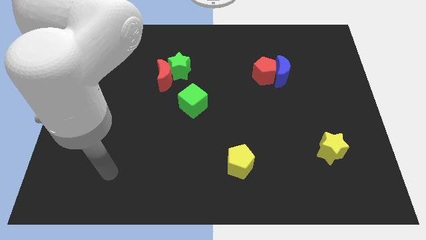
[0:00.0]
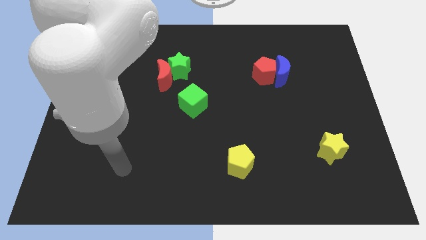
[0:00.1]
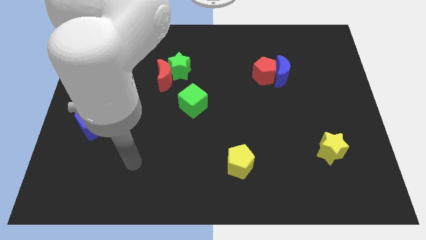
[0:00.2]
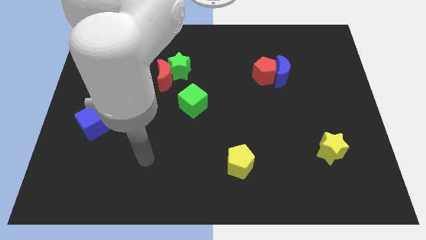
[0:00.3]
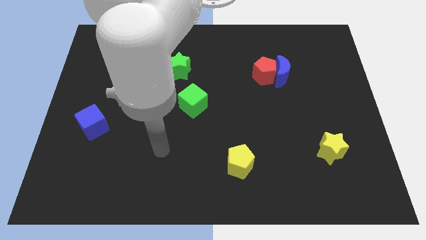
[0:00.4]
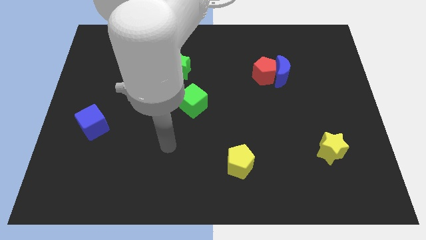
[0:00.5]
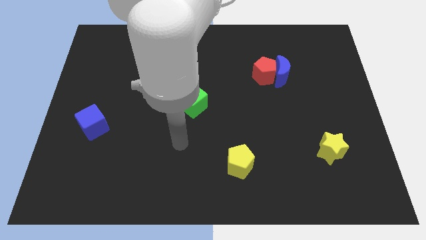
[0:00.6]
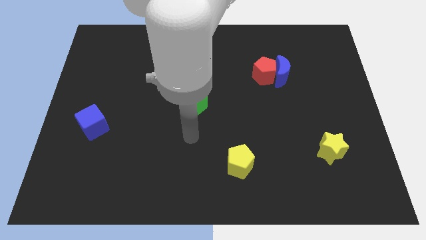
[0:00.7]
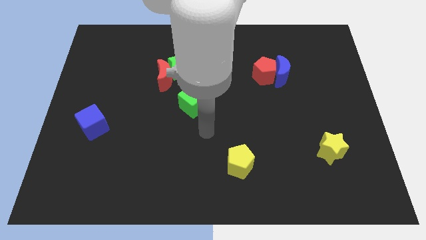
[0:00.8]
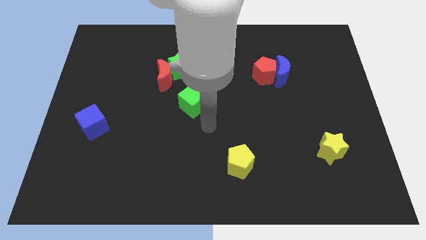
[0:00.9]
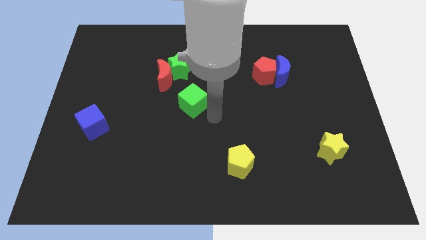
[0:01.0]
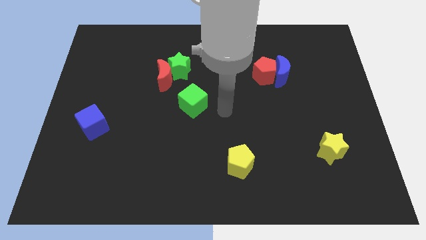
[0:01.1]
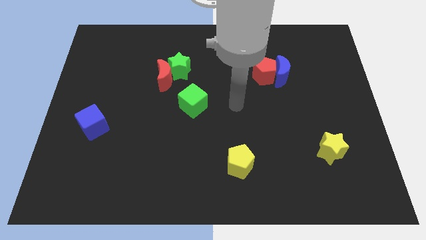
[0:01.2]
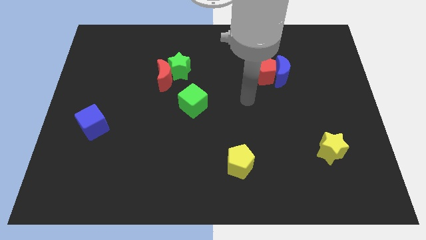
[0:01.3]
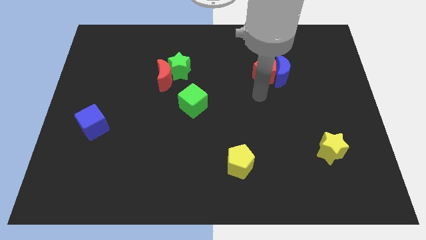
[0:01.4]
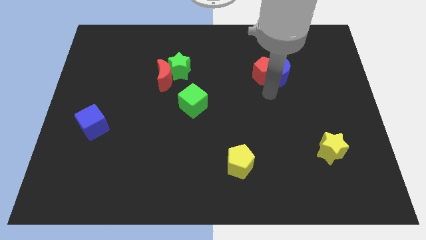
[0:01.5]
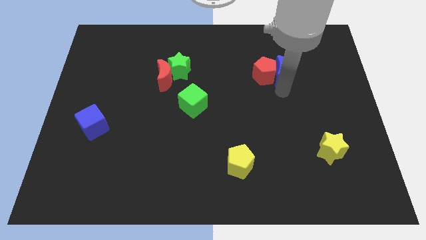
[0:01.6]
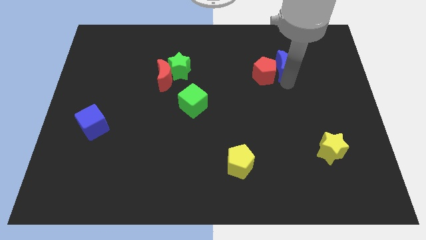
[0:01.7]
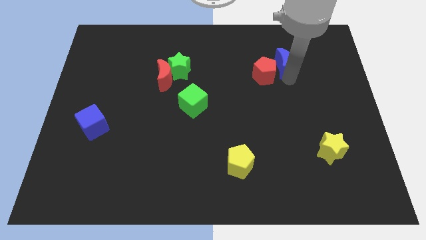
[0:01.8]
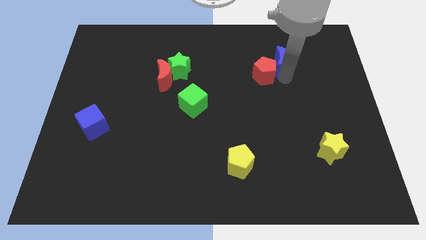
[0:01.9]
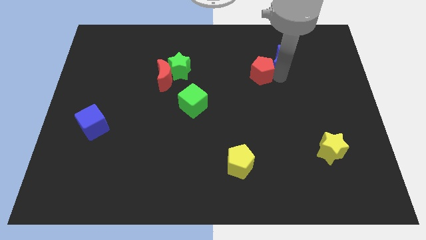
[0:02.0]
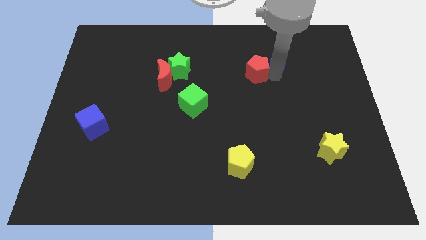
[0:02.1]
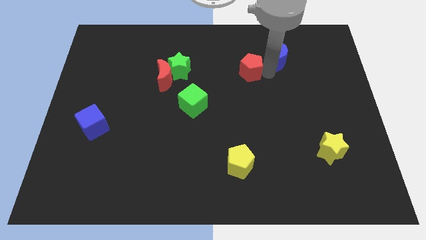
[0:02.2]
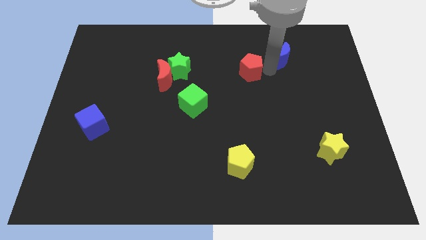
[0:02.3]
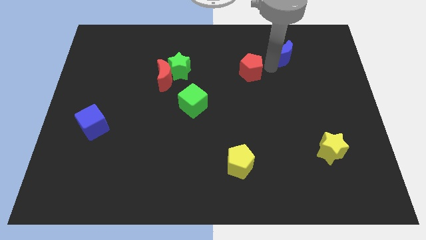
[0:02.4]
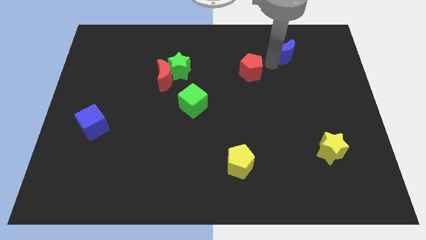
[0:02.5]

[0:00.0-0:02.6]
move the red pentagon away from the blue moon

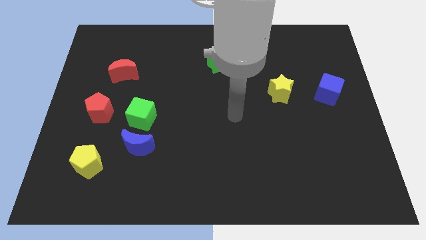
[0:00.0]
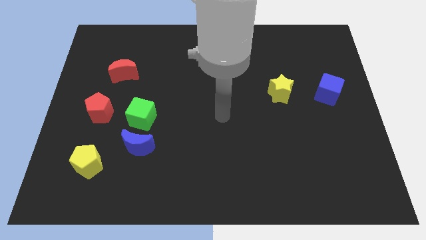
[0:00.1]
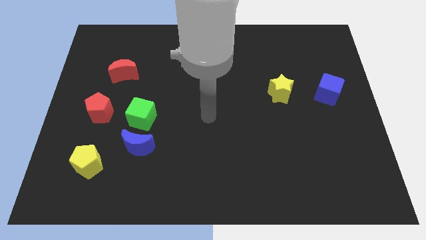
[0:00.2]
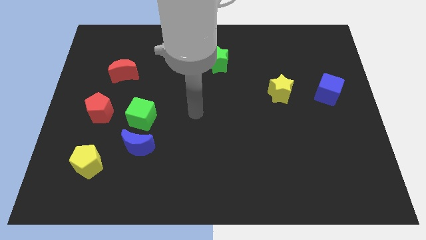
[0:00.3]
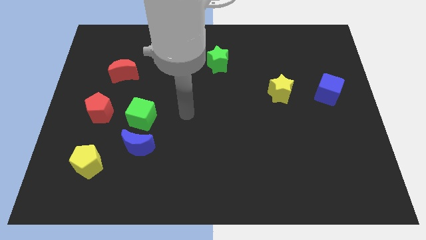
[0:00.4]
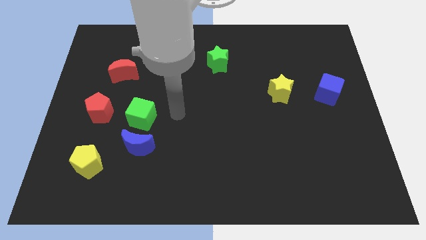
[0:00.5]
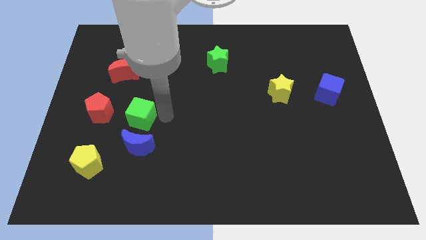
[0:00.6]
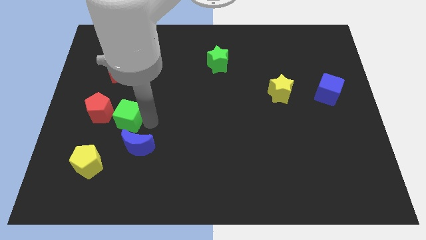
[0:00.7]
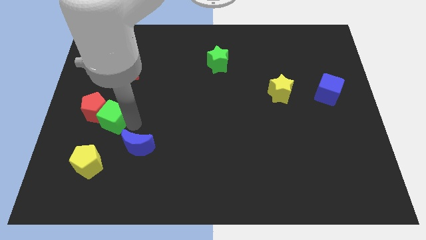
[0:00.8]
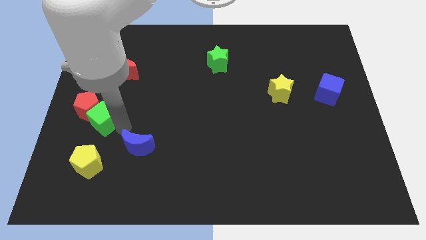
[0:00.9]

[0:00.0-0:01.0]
pull the blue moon apart from the green cube

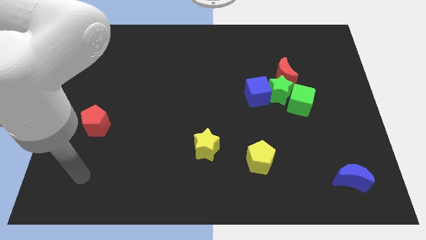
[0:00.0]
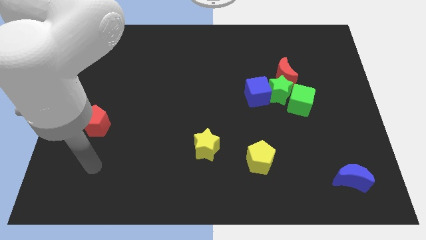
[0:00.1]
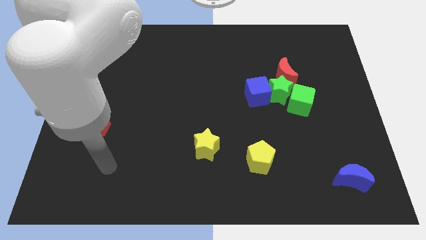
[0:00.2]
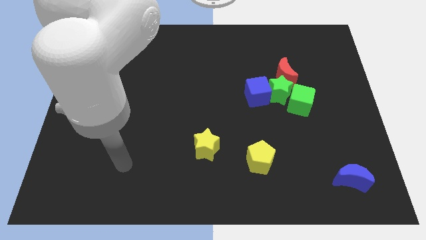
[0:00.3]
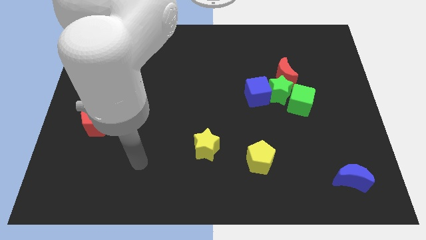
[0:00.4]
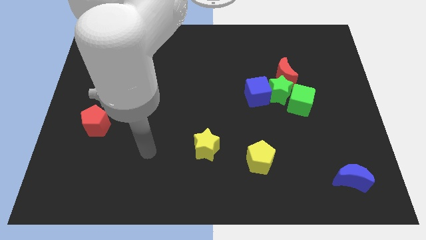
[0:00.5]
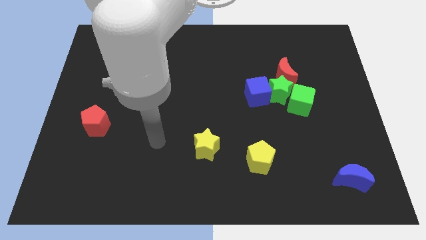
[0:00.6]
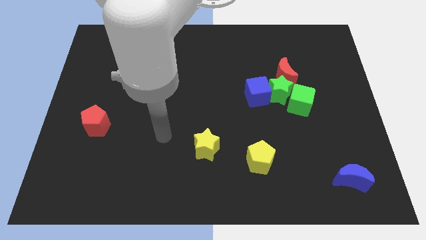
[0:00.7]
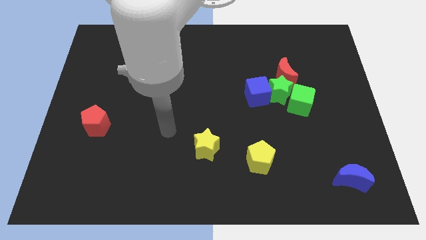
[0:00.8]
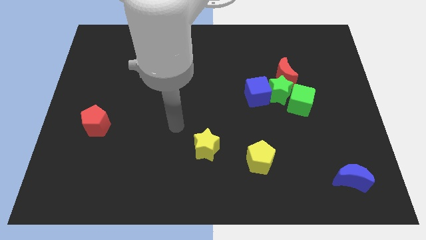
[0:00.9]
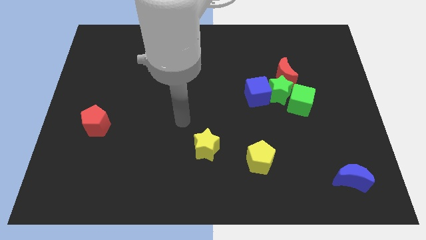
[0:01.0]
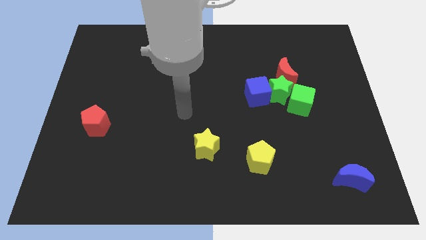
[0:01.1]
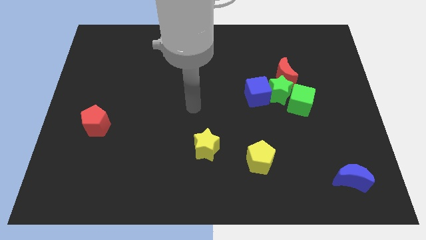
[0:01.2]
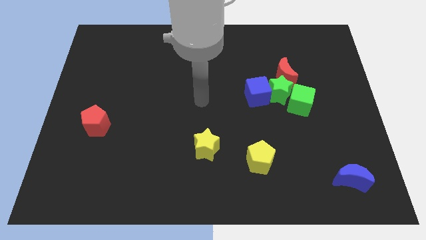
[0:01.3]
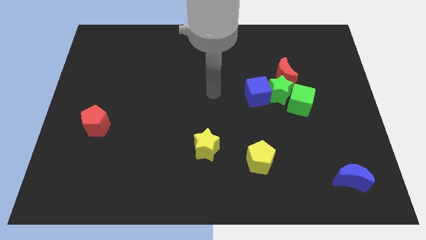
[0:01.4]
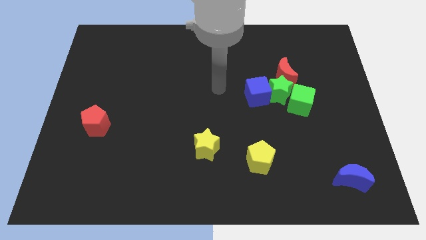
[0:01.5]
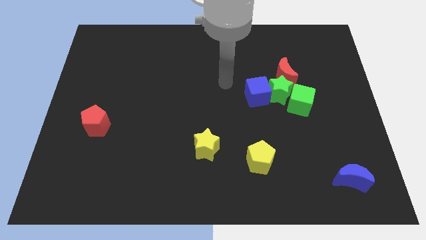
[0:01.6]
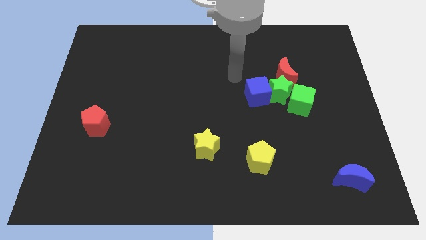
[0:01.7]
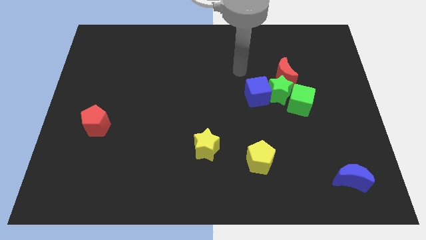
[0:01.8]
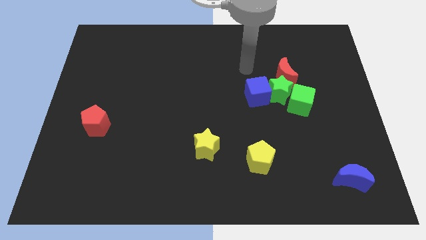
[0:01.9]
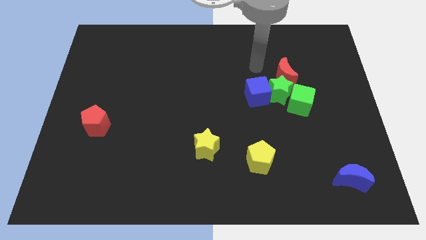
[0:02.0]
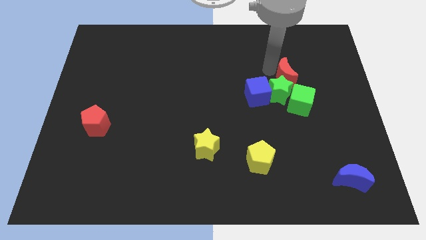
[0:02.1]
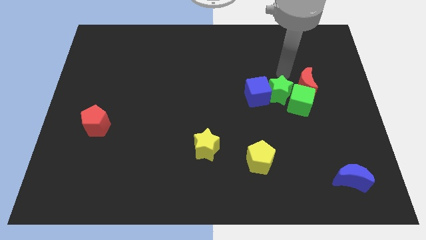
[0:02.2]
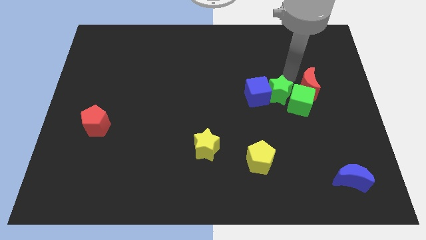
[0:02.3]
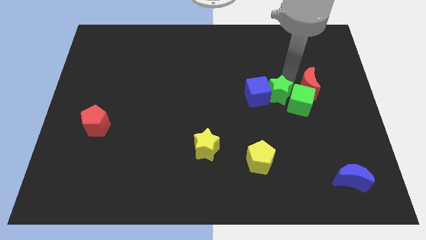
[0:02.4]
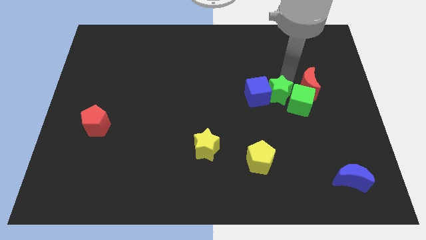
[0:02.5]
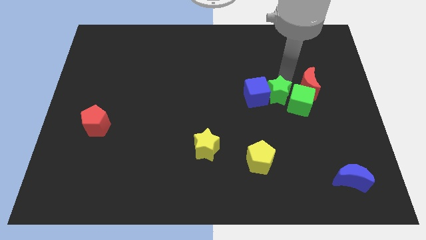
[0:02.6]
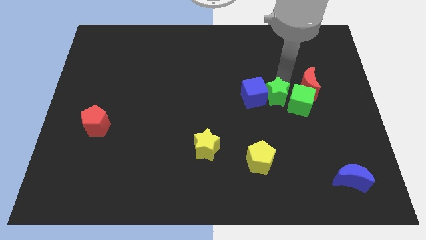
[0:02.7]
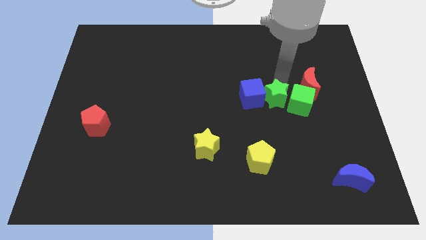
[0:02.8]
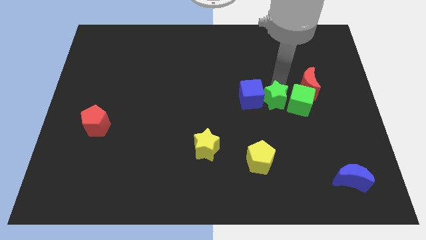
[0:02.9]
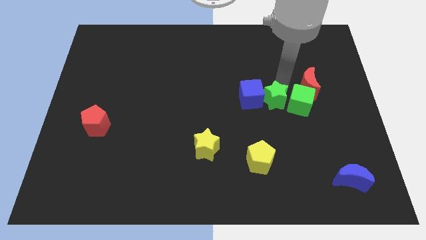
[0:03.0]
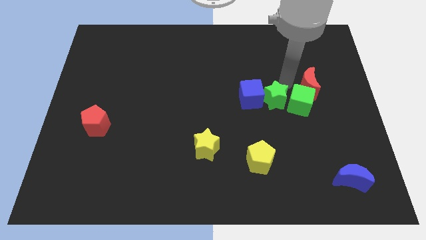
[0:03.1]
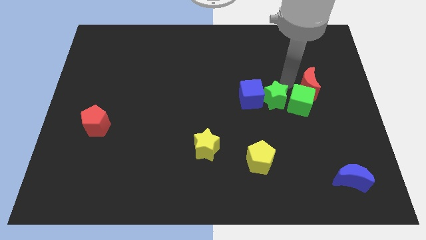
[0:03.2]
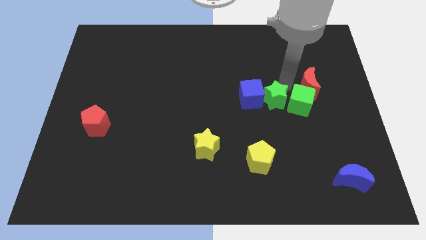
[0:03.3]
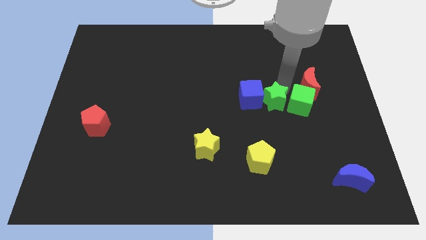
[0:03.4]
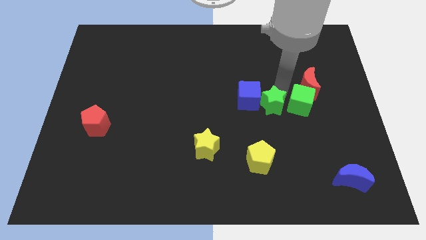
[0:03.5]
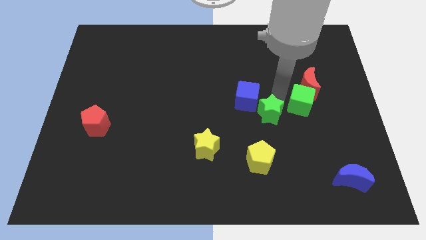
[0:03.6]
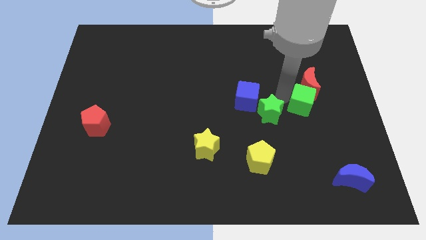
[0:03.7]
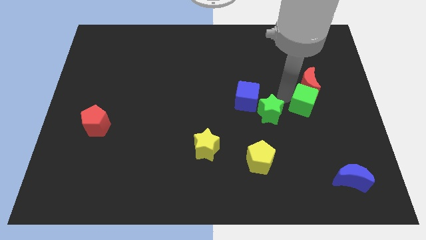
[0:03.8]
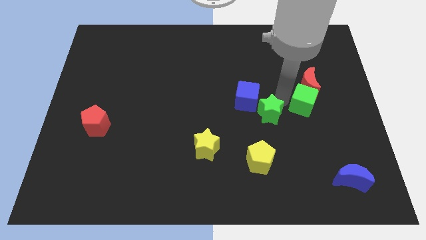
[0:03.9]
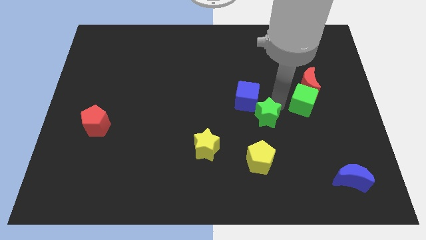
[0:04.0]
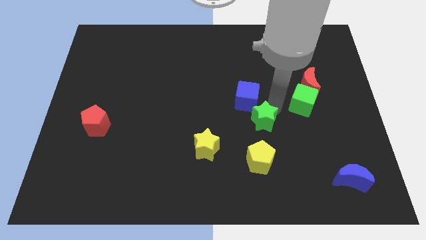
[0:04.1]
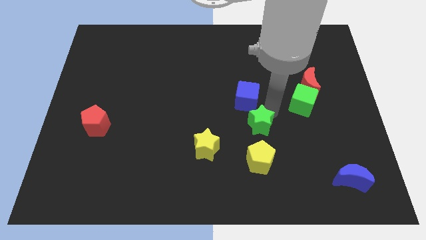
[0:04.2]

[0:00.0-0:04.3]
separate the green star from the clump

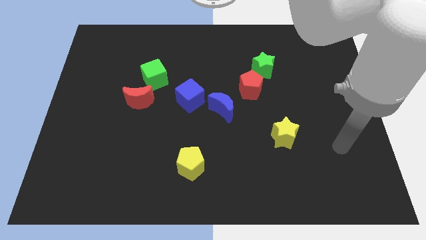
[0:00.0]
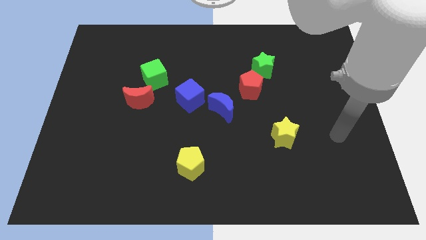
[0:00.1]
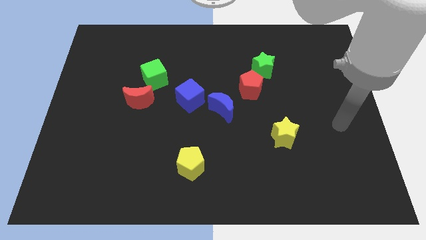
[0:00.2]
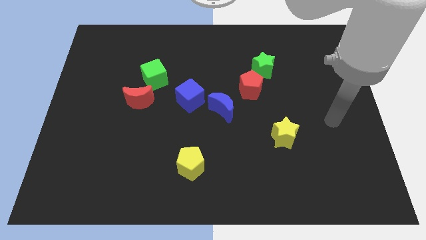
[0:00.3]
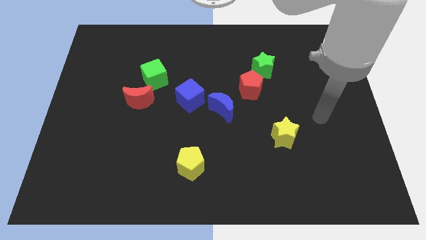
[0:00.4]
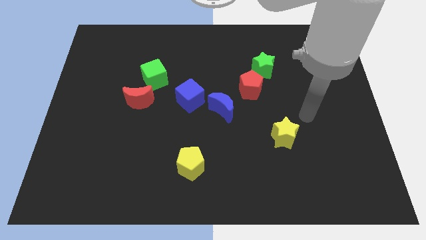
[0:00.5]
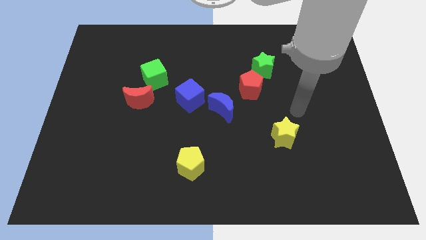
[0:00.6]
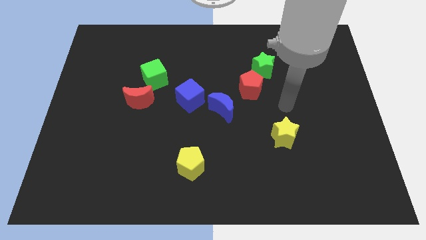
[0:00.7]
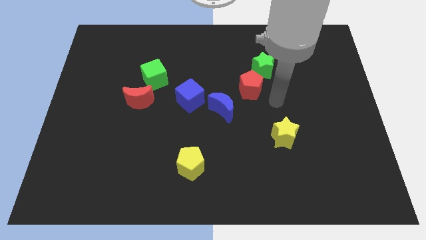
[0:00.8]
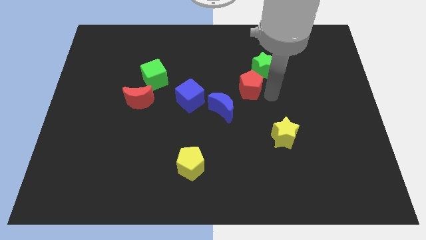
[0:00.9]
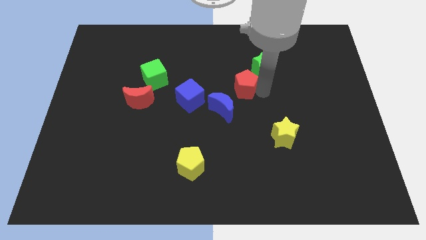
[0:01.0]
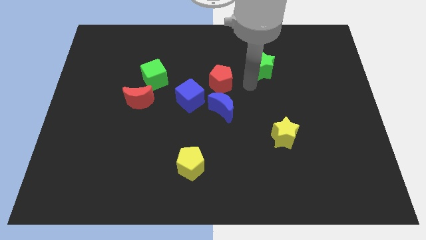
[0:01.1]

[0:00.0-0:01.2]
move the green star away from the red pentagon

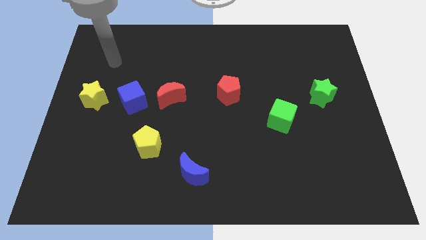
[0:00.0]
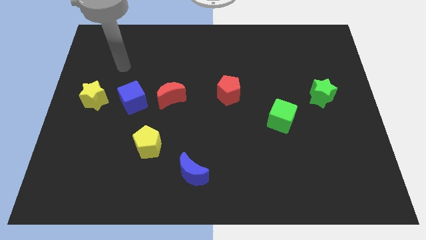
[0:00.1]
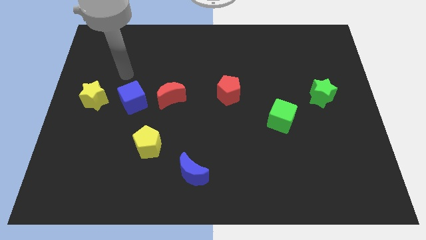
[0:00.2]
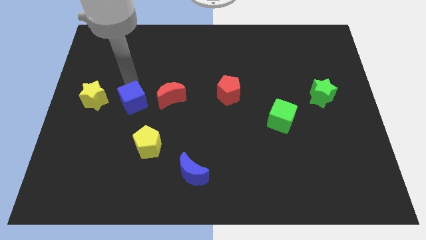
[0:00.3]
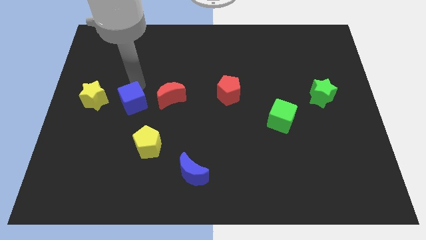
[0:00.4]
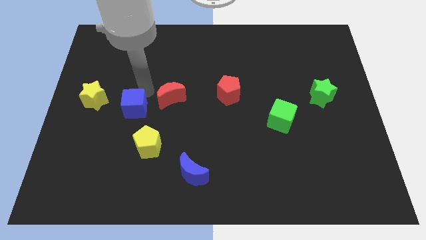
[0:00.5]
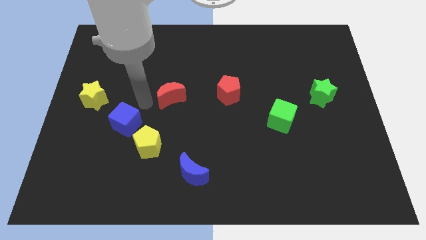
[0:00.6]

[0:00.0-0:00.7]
pull the red moon apart from the blue cube
